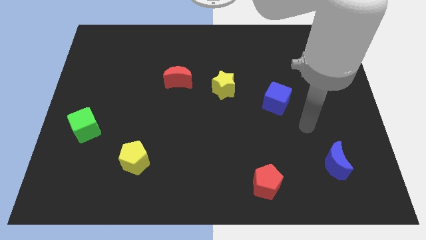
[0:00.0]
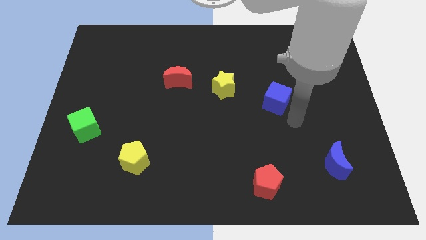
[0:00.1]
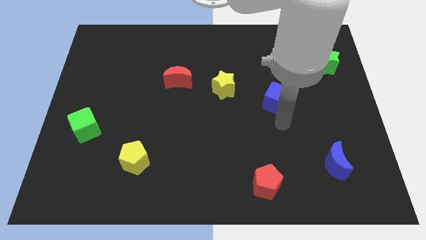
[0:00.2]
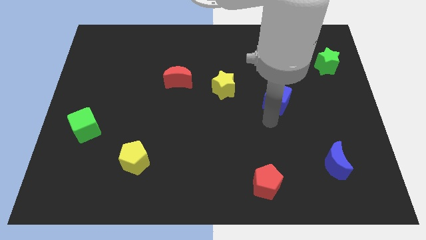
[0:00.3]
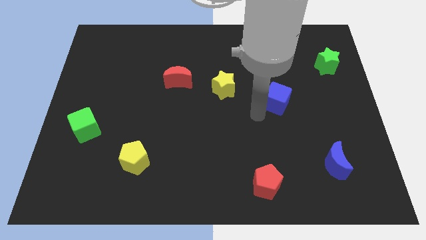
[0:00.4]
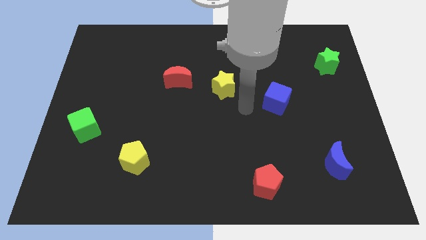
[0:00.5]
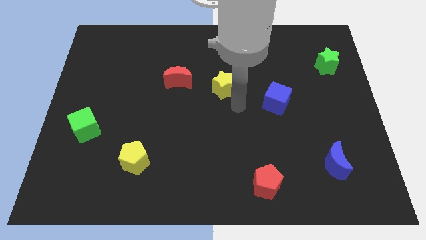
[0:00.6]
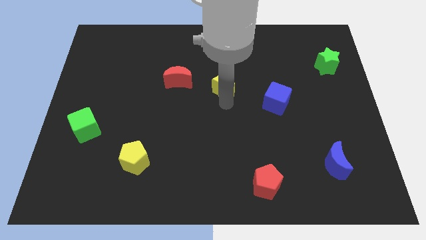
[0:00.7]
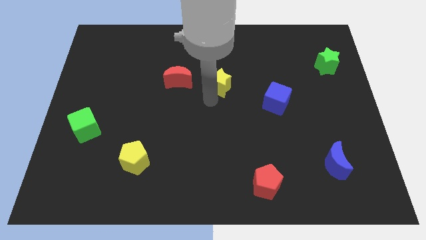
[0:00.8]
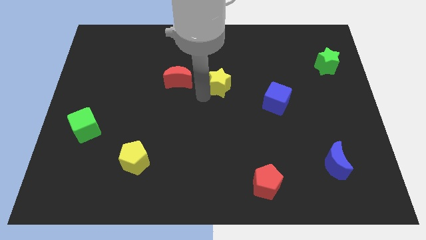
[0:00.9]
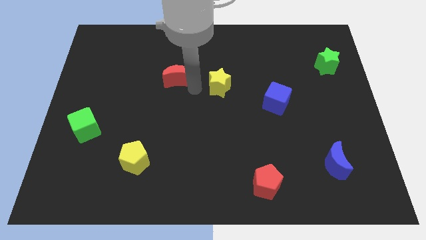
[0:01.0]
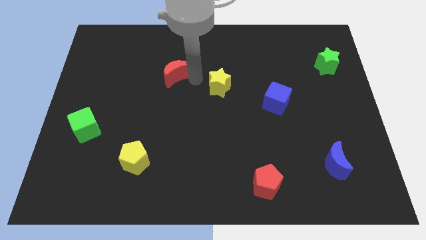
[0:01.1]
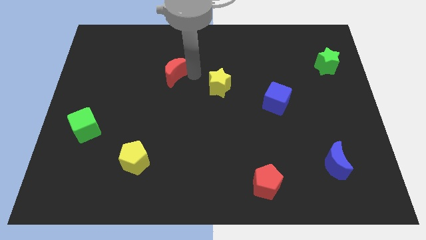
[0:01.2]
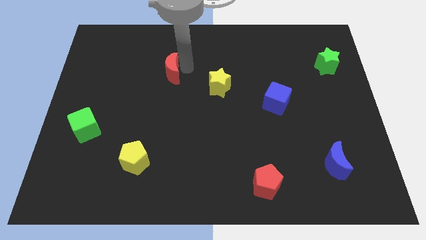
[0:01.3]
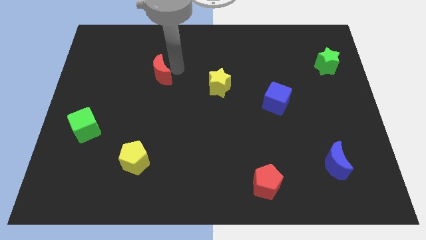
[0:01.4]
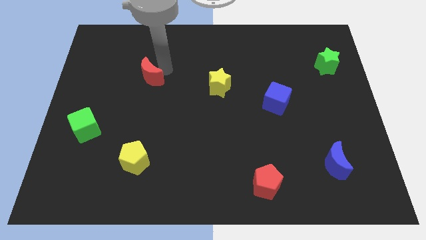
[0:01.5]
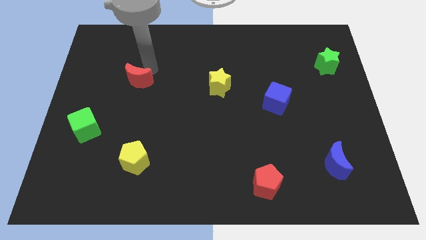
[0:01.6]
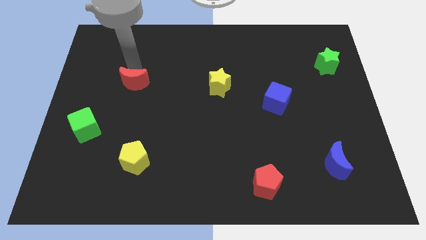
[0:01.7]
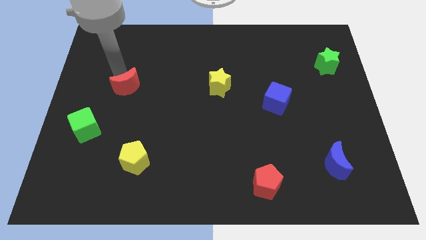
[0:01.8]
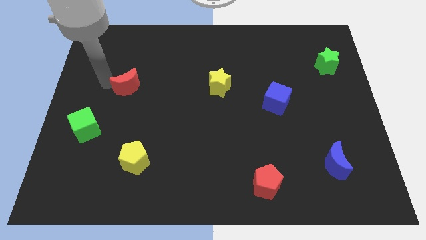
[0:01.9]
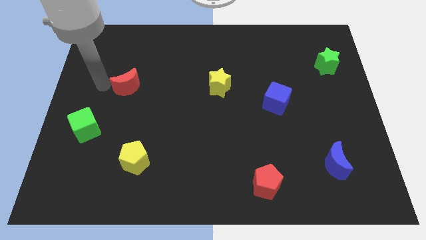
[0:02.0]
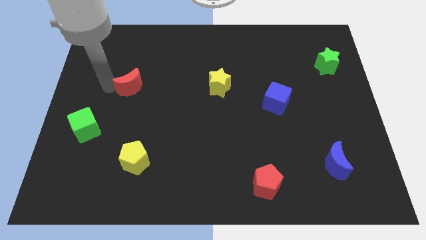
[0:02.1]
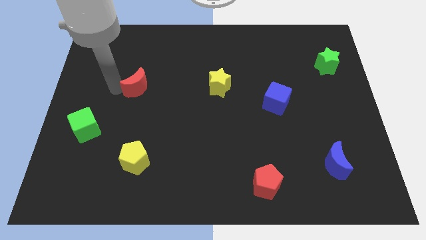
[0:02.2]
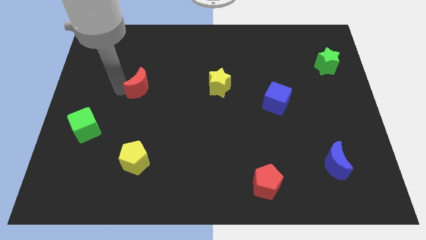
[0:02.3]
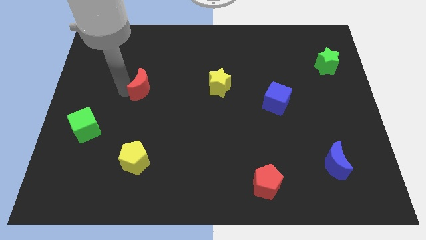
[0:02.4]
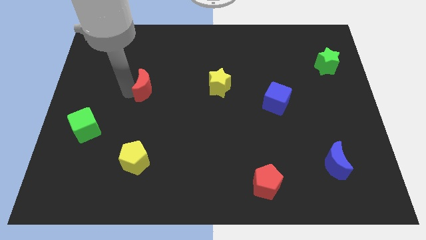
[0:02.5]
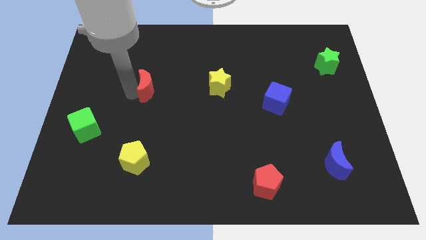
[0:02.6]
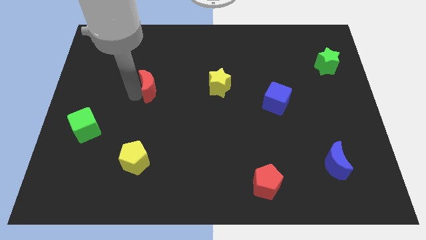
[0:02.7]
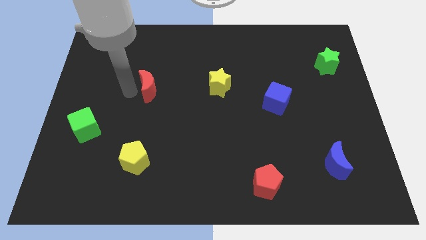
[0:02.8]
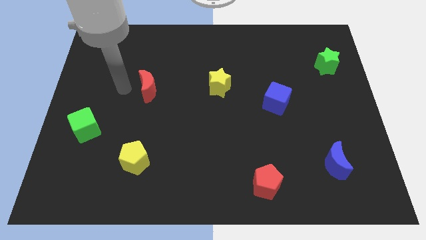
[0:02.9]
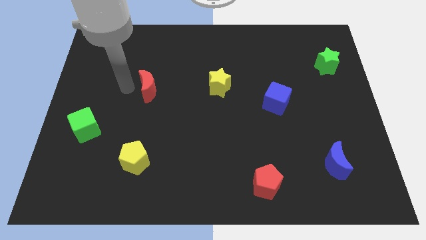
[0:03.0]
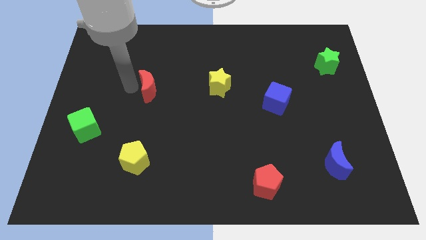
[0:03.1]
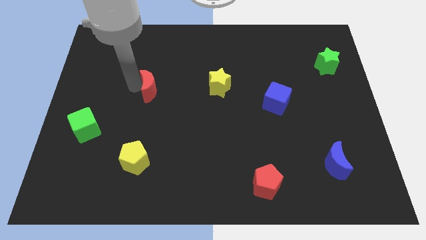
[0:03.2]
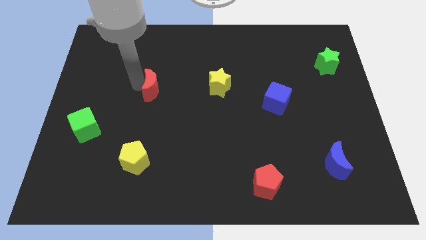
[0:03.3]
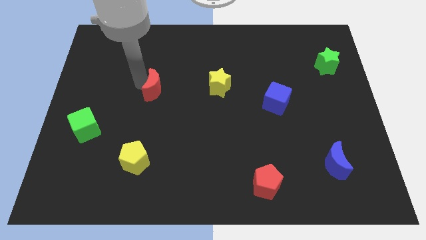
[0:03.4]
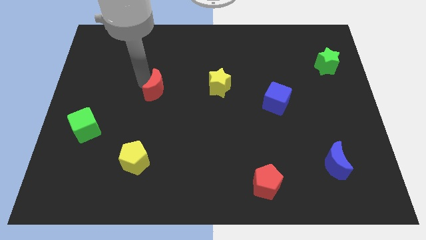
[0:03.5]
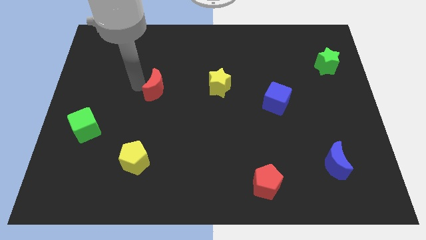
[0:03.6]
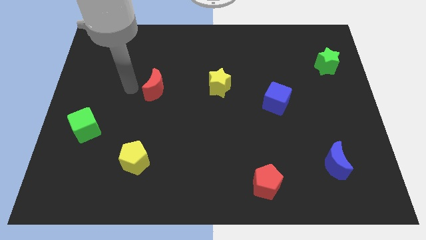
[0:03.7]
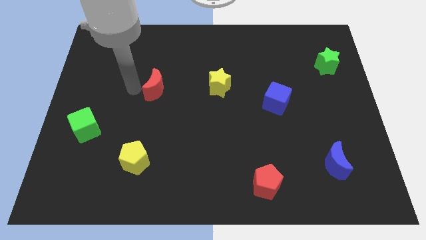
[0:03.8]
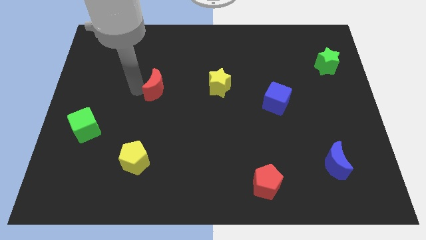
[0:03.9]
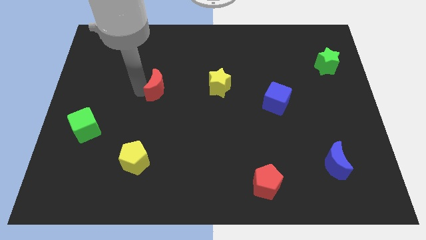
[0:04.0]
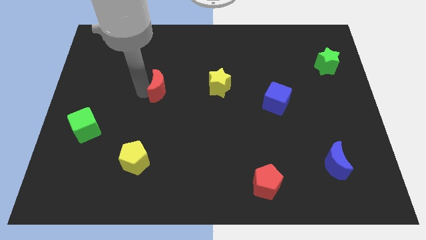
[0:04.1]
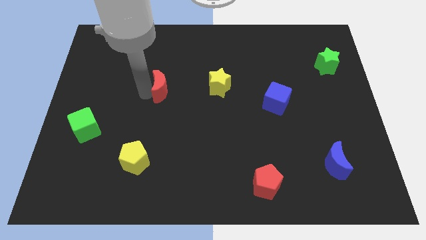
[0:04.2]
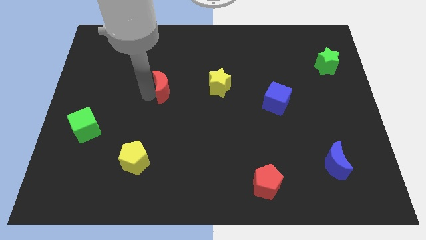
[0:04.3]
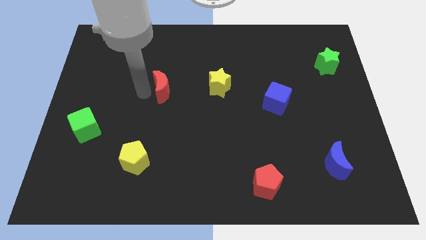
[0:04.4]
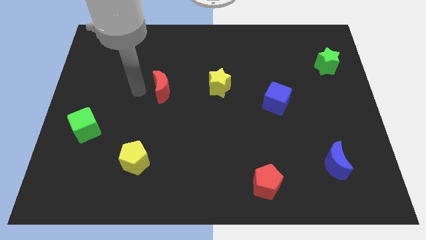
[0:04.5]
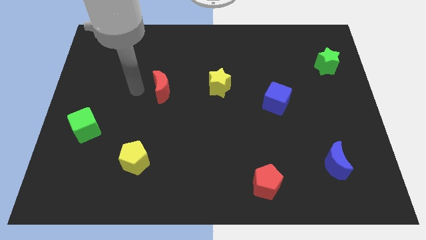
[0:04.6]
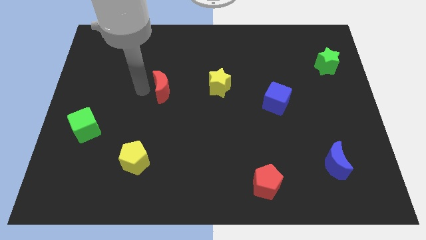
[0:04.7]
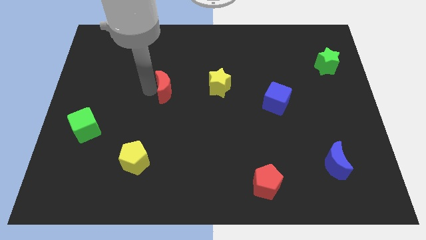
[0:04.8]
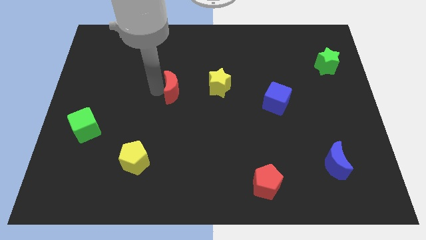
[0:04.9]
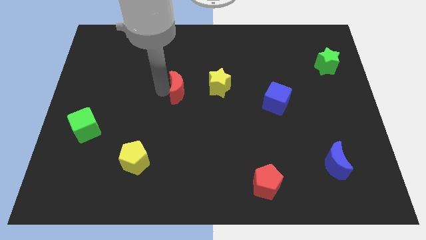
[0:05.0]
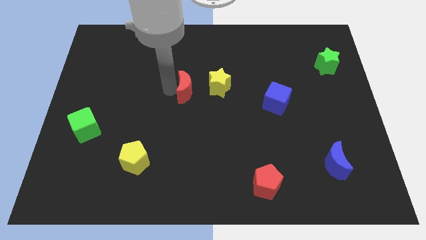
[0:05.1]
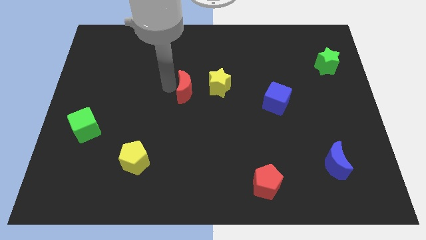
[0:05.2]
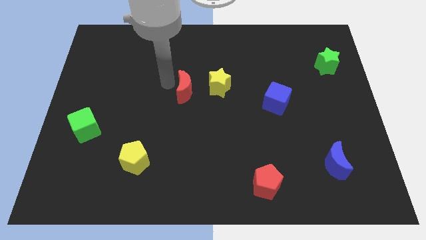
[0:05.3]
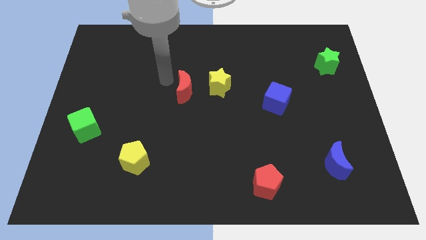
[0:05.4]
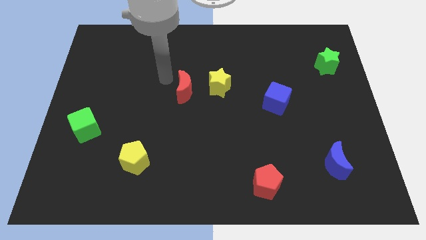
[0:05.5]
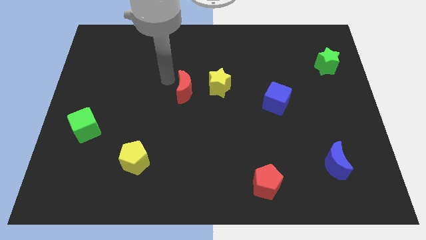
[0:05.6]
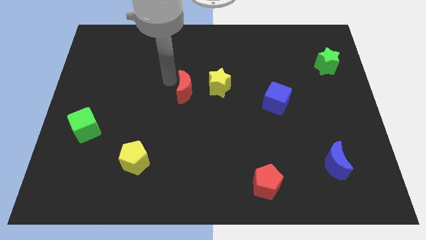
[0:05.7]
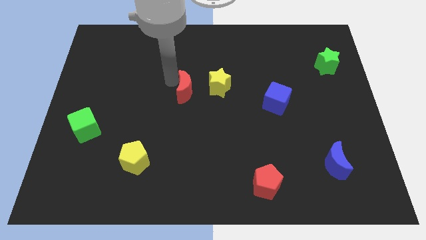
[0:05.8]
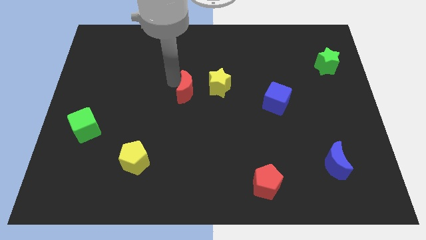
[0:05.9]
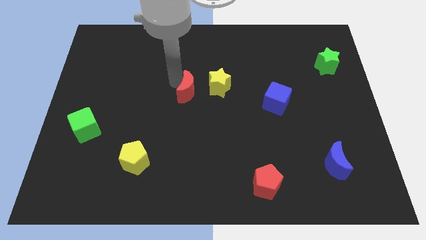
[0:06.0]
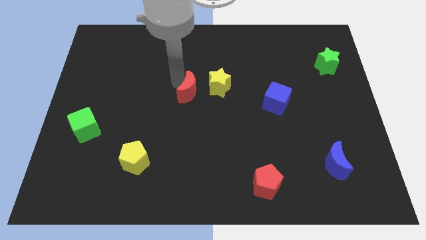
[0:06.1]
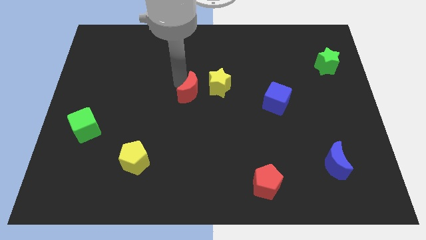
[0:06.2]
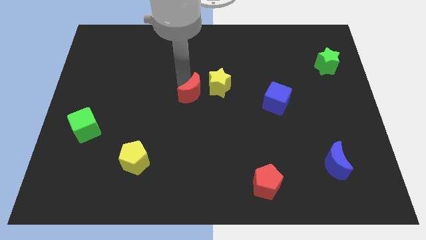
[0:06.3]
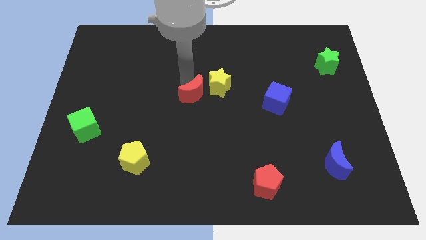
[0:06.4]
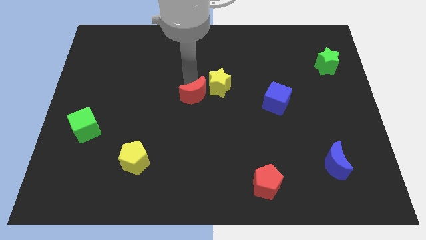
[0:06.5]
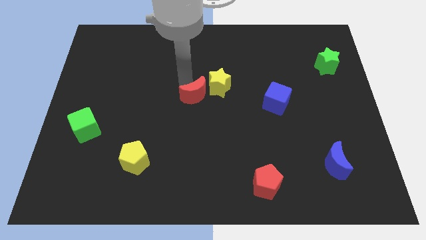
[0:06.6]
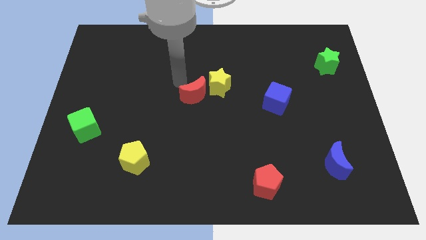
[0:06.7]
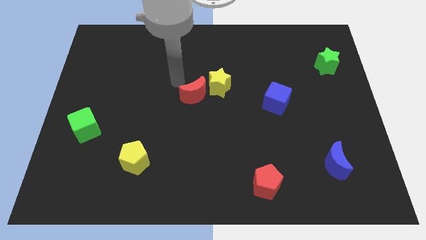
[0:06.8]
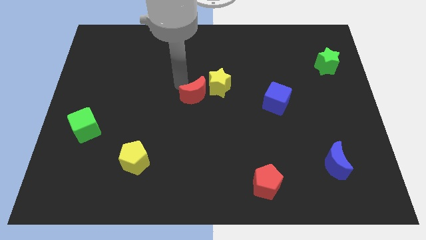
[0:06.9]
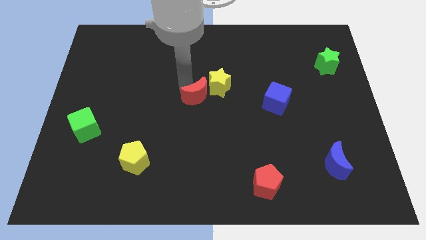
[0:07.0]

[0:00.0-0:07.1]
move the red moon slightly down and then right

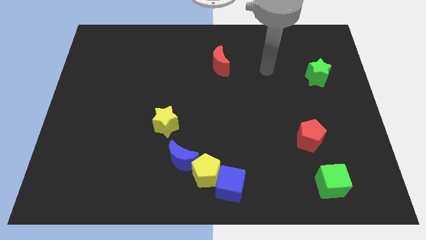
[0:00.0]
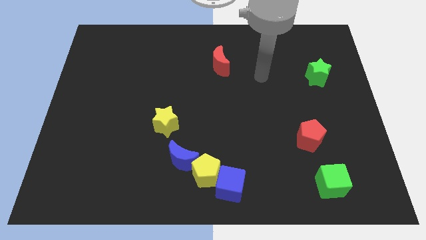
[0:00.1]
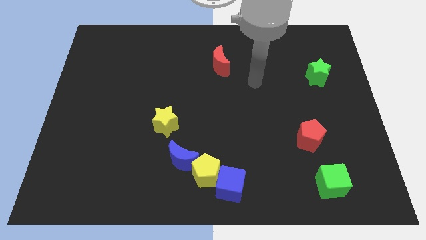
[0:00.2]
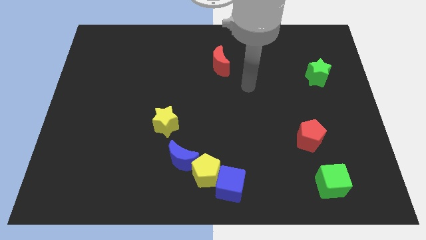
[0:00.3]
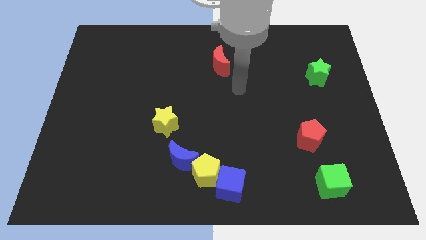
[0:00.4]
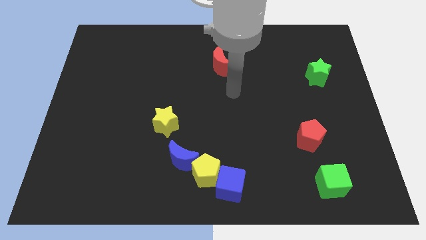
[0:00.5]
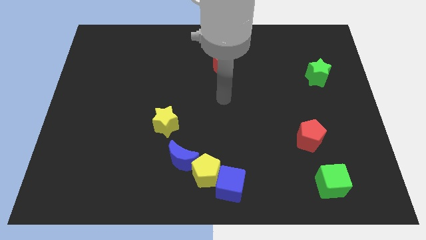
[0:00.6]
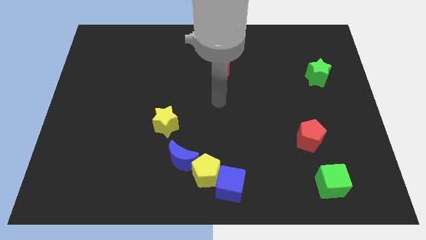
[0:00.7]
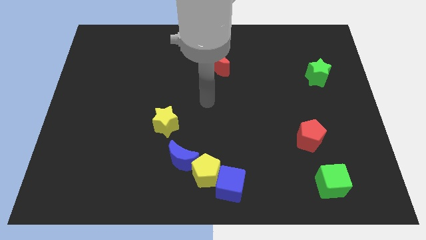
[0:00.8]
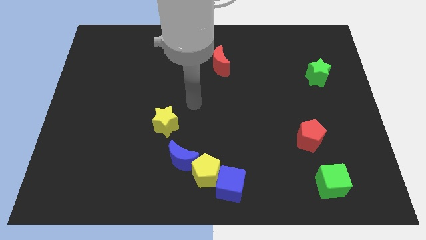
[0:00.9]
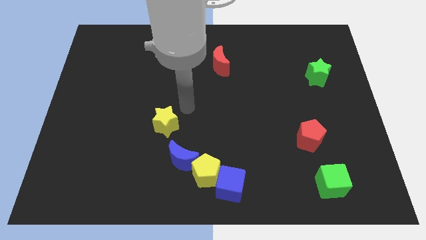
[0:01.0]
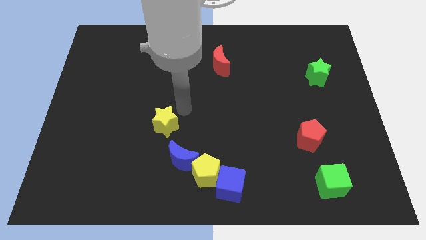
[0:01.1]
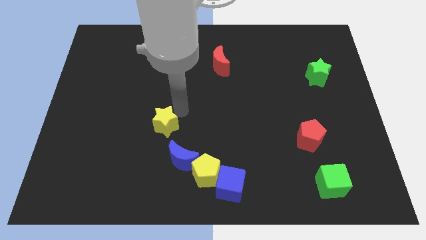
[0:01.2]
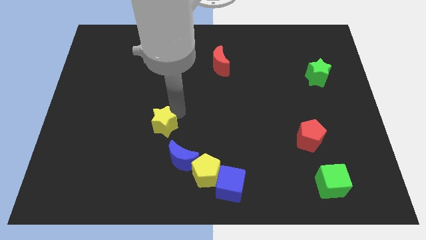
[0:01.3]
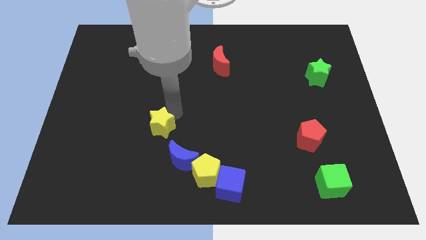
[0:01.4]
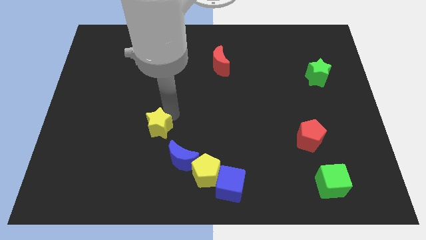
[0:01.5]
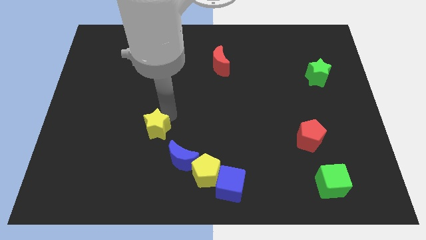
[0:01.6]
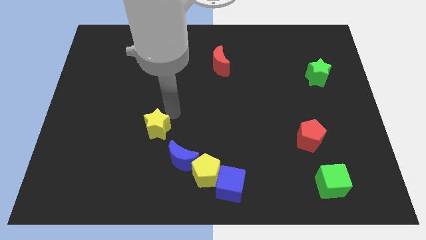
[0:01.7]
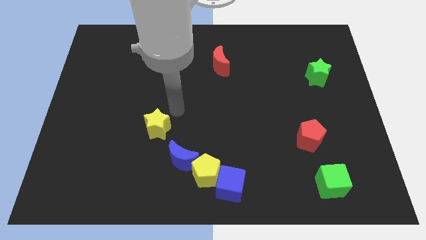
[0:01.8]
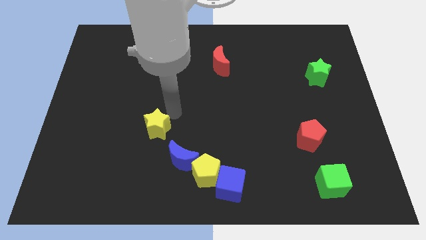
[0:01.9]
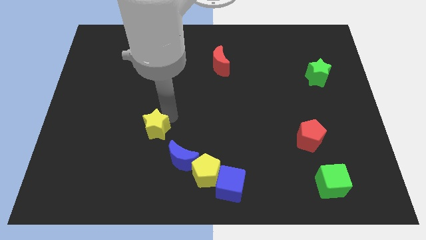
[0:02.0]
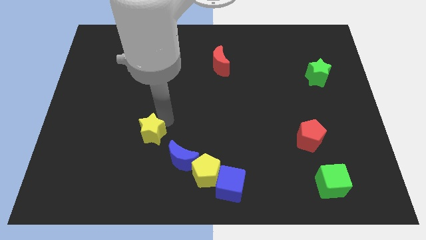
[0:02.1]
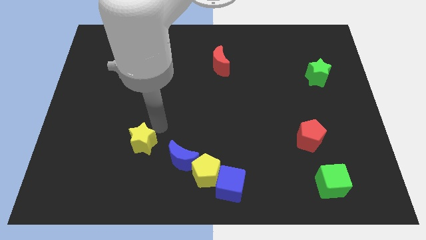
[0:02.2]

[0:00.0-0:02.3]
slightly push the yellow star diagonally down and to the left
